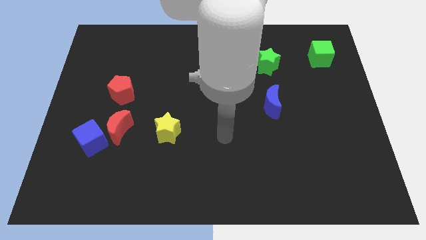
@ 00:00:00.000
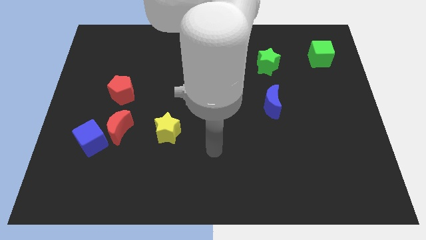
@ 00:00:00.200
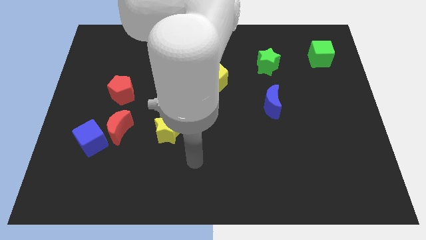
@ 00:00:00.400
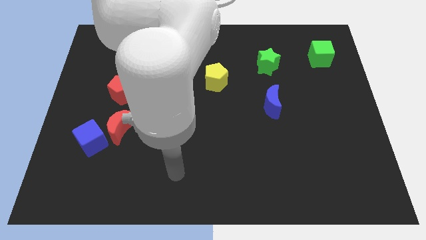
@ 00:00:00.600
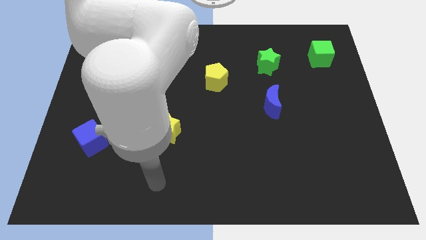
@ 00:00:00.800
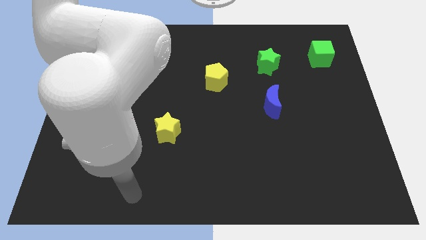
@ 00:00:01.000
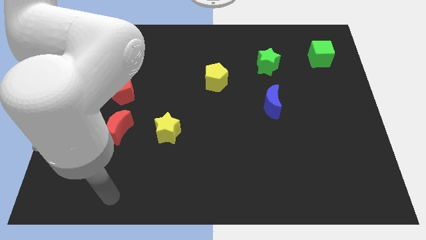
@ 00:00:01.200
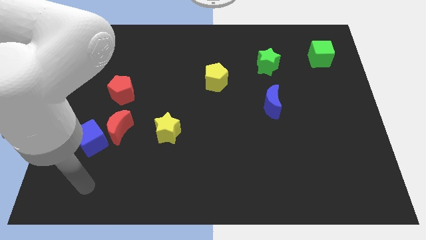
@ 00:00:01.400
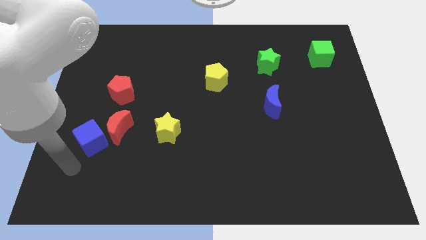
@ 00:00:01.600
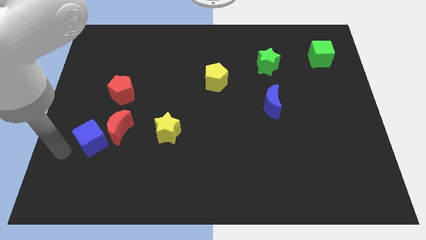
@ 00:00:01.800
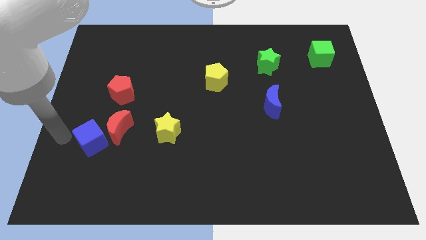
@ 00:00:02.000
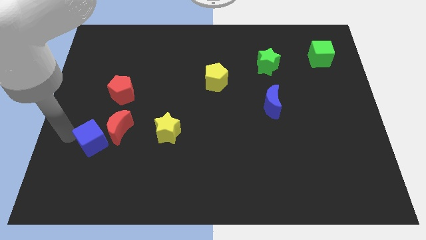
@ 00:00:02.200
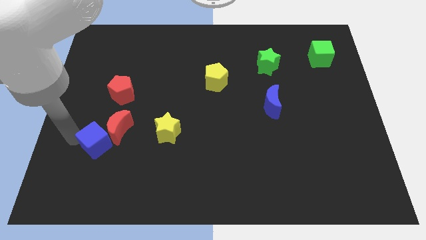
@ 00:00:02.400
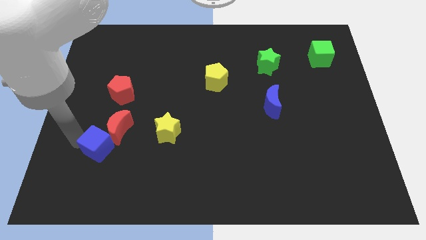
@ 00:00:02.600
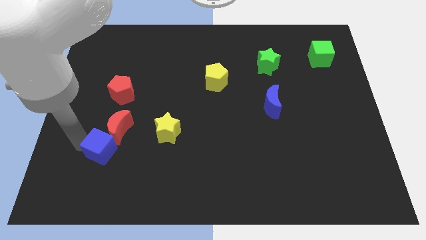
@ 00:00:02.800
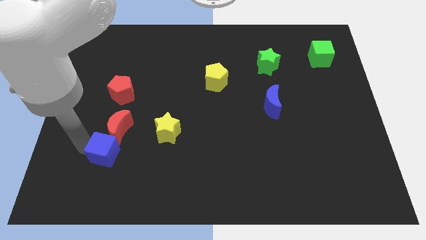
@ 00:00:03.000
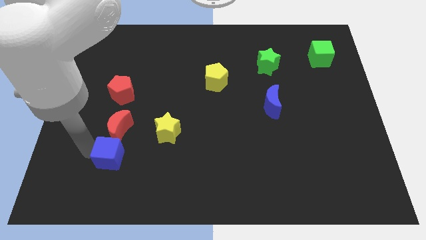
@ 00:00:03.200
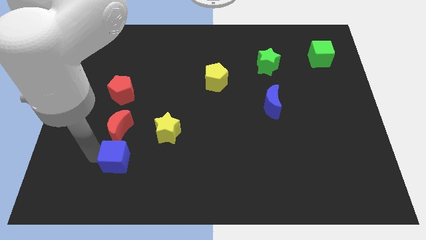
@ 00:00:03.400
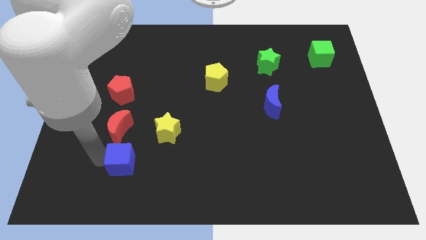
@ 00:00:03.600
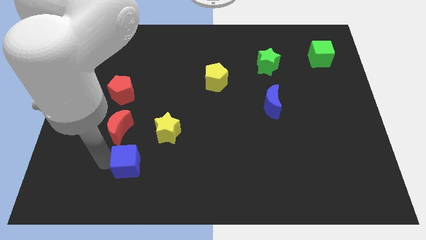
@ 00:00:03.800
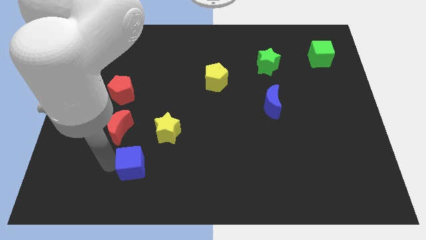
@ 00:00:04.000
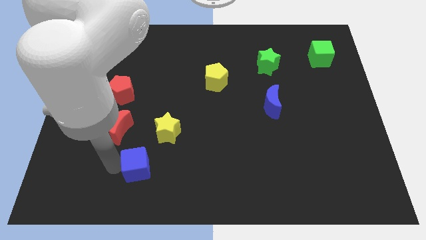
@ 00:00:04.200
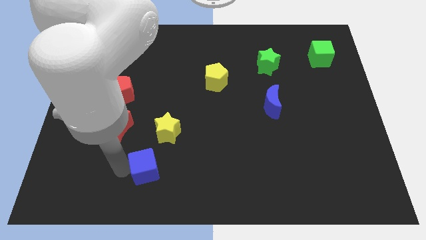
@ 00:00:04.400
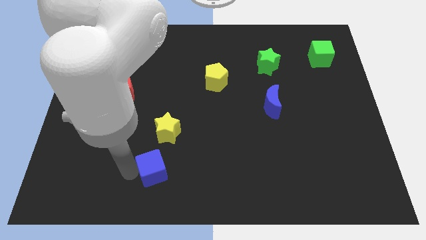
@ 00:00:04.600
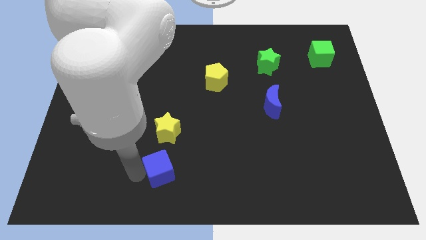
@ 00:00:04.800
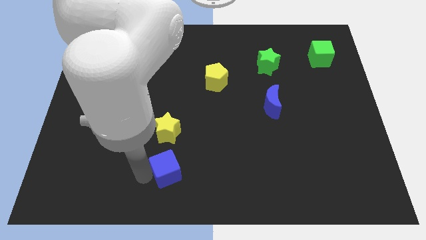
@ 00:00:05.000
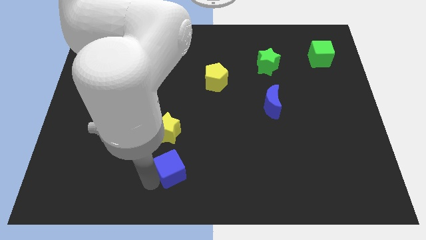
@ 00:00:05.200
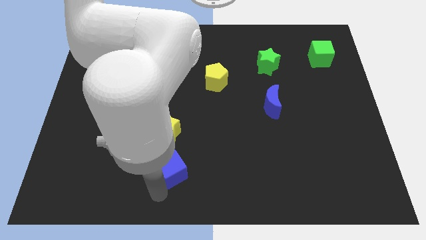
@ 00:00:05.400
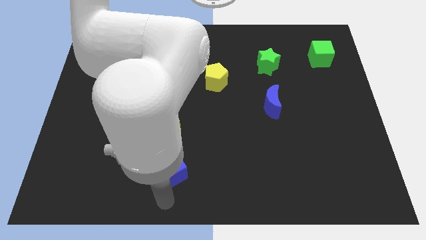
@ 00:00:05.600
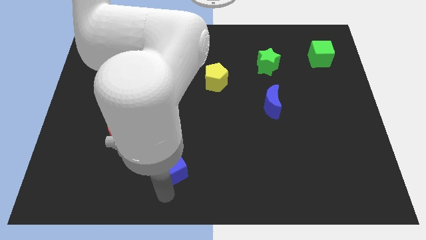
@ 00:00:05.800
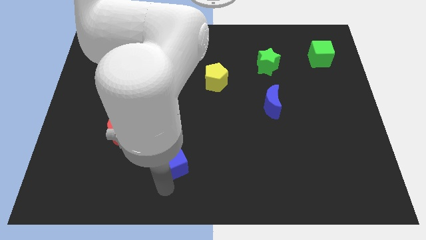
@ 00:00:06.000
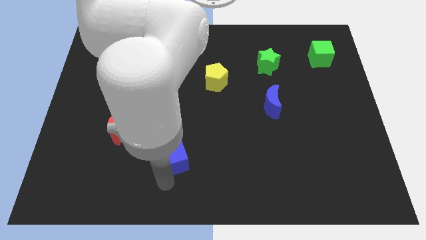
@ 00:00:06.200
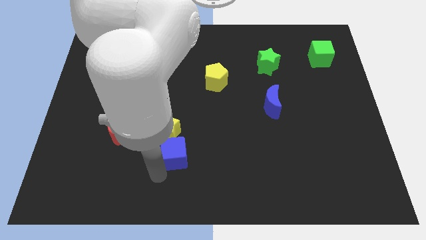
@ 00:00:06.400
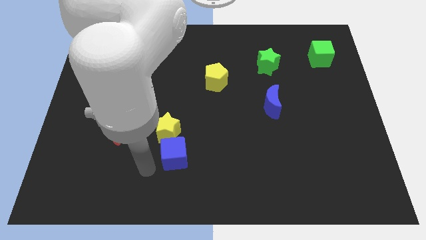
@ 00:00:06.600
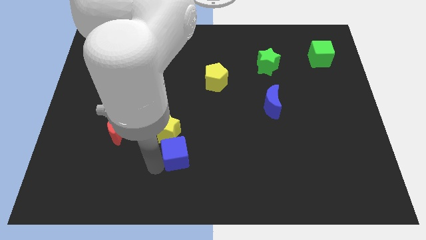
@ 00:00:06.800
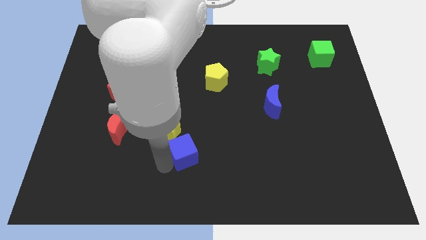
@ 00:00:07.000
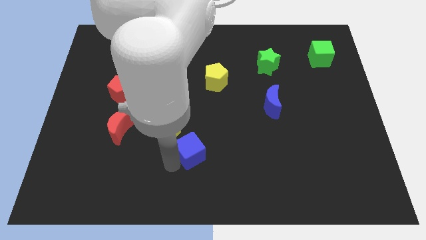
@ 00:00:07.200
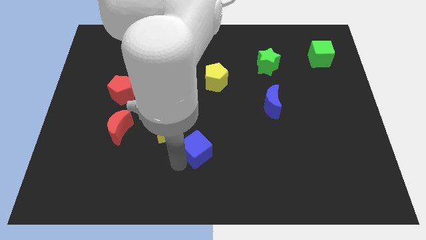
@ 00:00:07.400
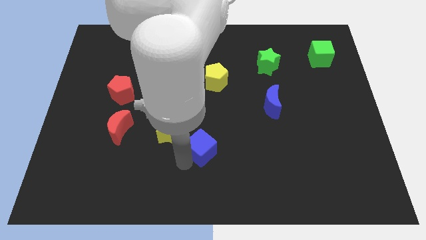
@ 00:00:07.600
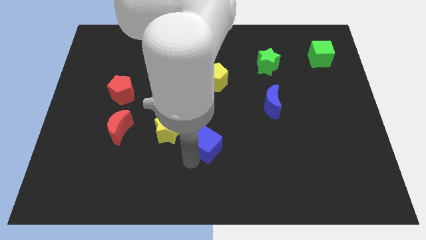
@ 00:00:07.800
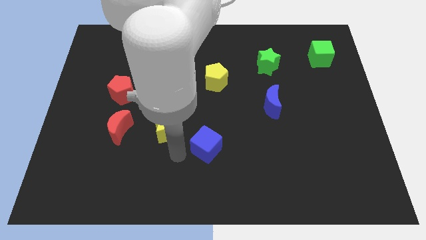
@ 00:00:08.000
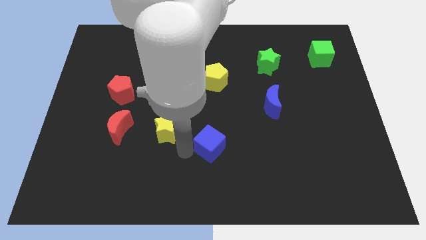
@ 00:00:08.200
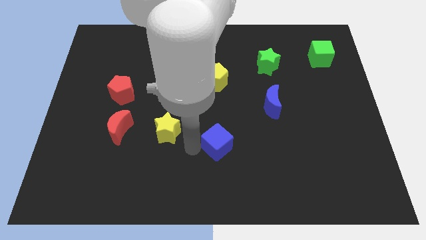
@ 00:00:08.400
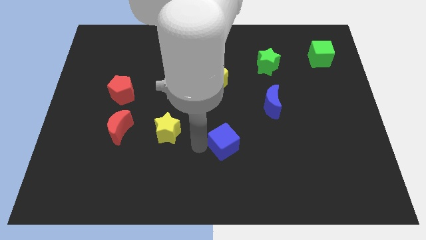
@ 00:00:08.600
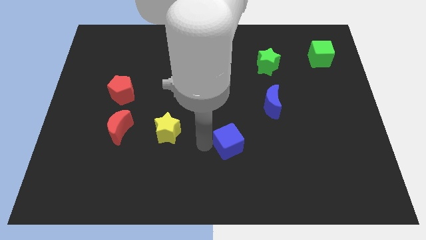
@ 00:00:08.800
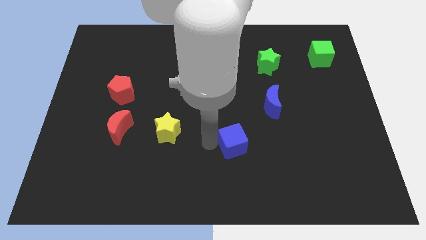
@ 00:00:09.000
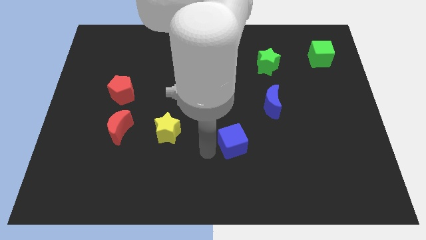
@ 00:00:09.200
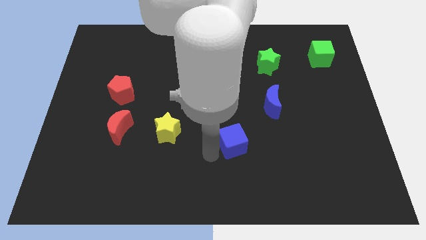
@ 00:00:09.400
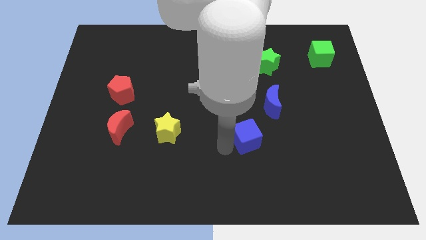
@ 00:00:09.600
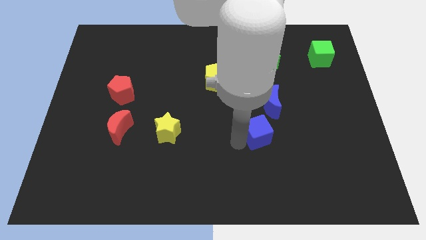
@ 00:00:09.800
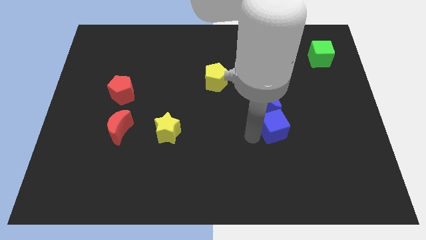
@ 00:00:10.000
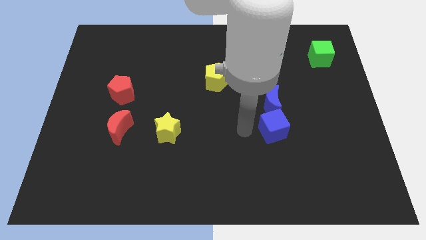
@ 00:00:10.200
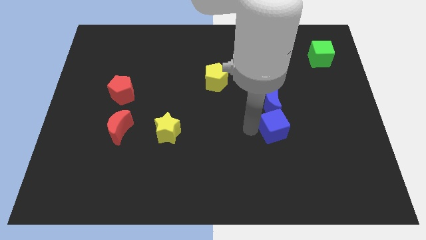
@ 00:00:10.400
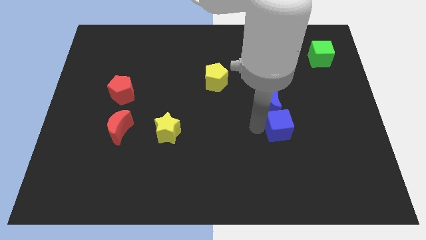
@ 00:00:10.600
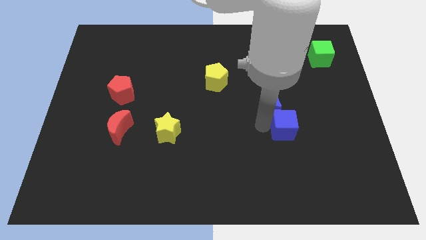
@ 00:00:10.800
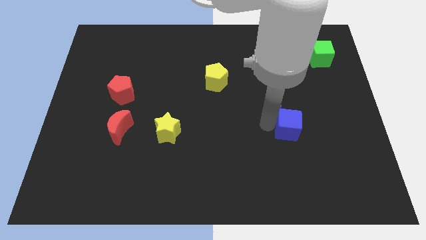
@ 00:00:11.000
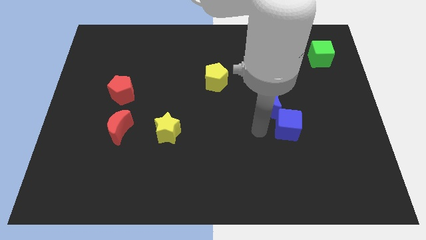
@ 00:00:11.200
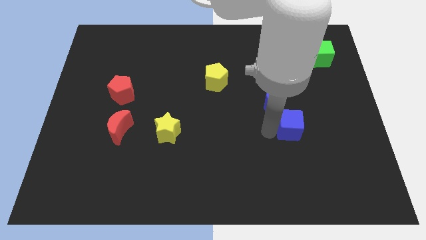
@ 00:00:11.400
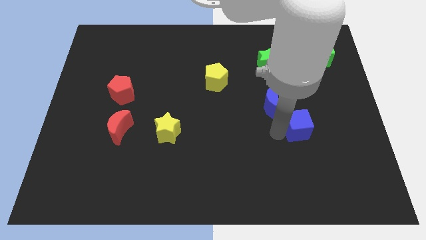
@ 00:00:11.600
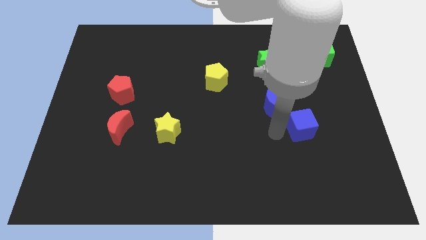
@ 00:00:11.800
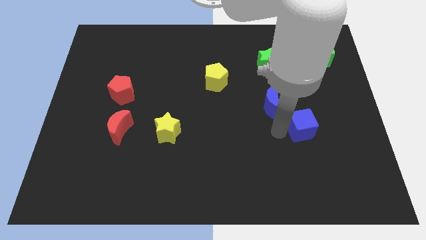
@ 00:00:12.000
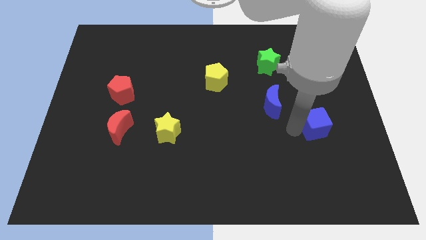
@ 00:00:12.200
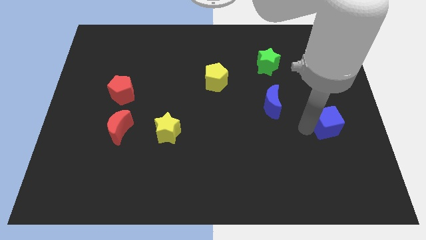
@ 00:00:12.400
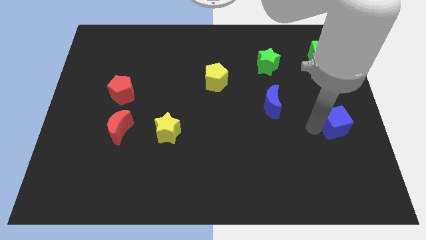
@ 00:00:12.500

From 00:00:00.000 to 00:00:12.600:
put the blue cube to the center right
